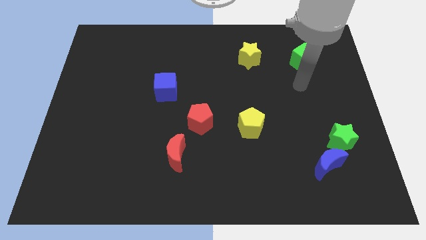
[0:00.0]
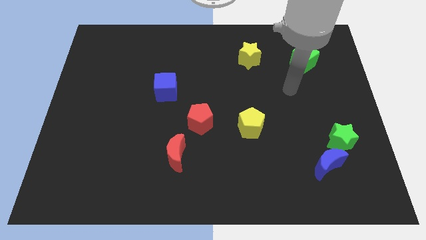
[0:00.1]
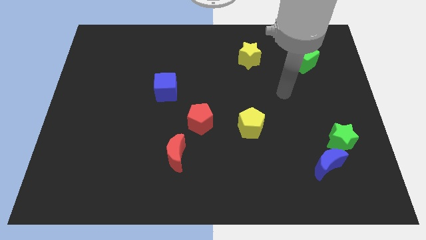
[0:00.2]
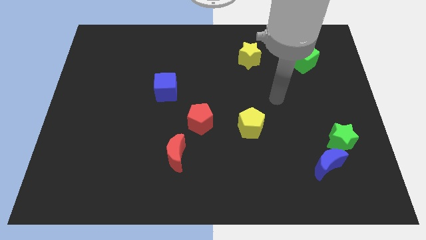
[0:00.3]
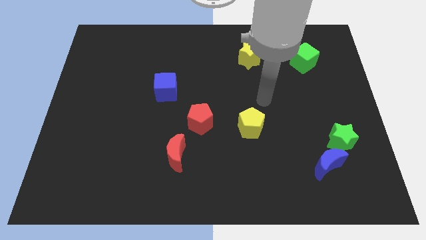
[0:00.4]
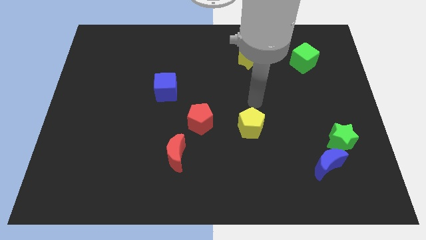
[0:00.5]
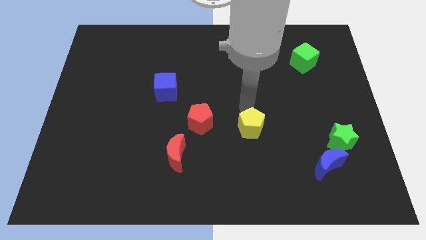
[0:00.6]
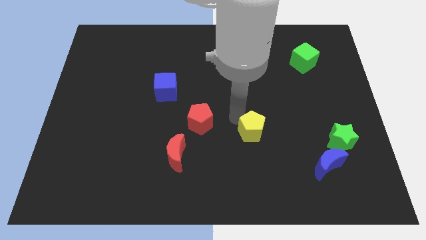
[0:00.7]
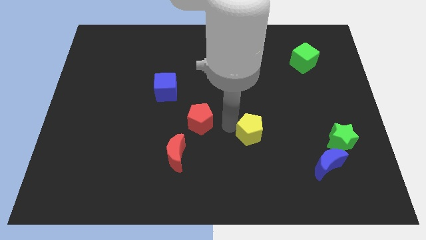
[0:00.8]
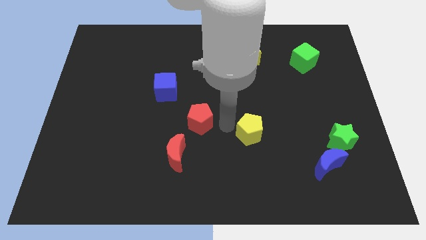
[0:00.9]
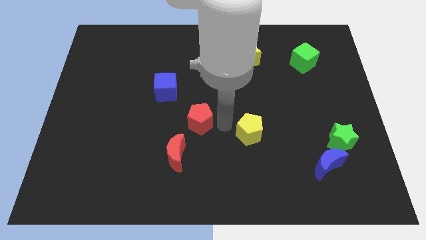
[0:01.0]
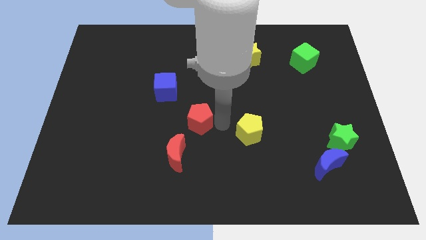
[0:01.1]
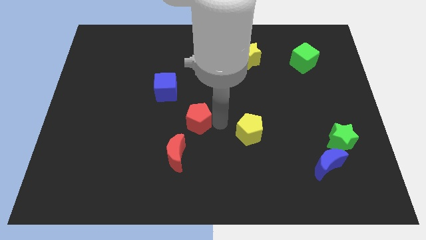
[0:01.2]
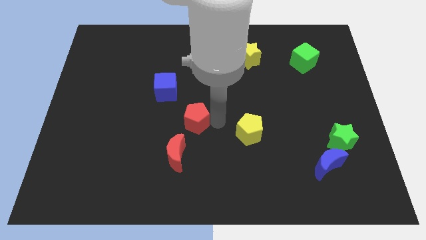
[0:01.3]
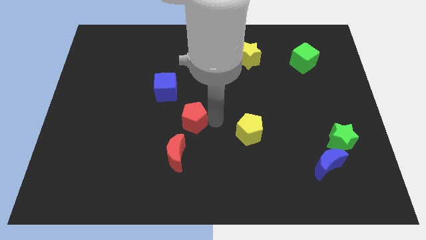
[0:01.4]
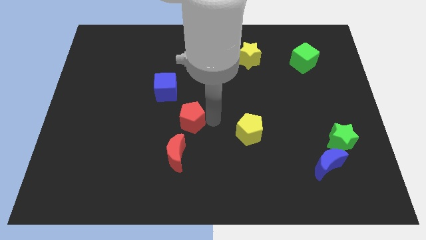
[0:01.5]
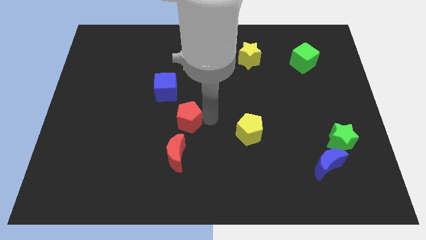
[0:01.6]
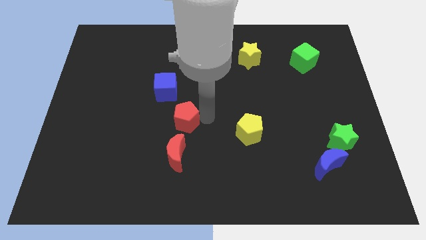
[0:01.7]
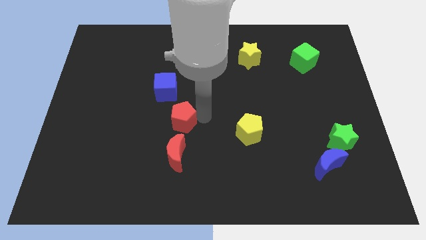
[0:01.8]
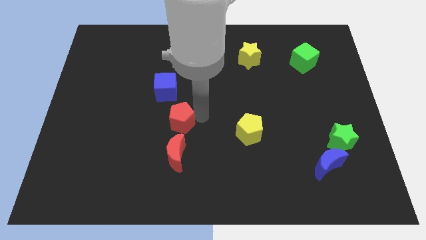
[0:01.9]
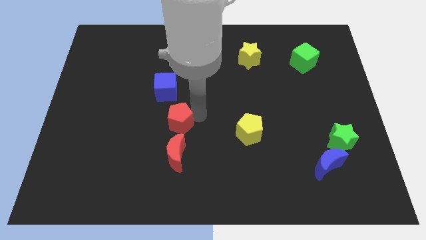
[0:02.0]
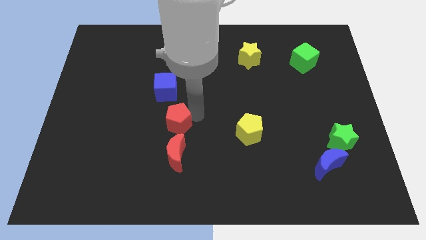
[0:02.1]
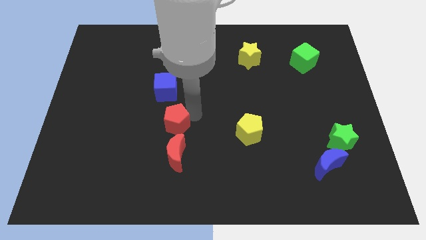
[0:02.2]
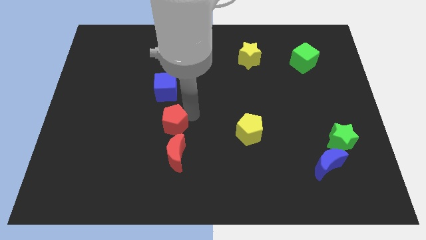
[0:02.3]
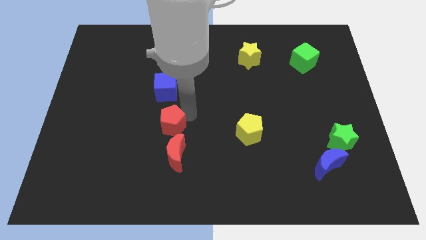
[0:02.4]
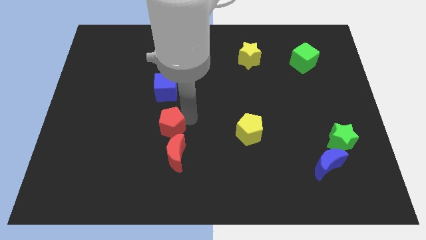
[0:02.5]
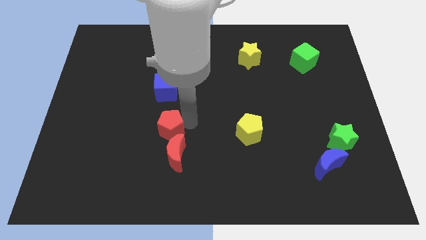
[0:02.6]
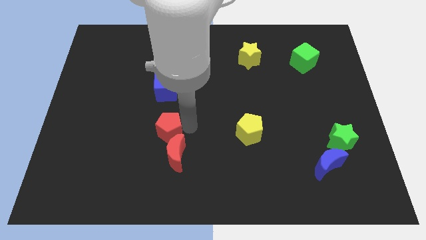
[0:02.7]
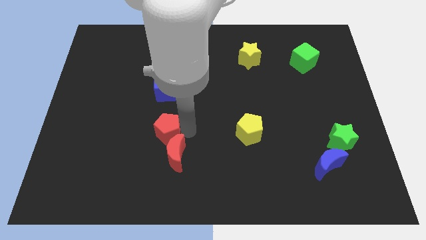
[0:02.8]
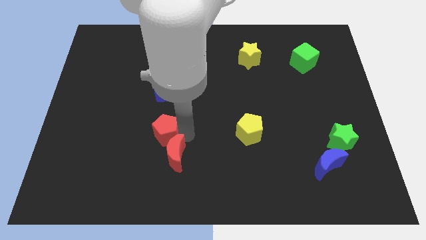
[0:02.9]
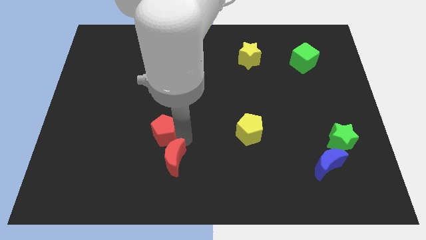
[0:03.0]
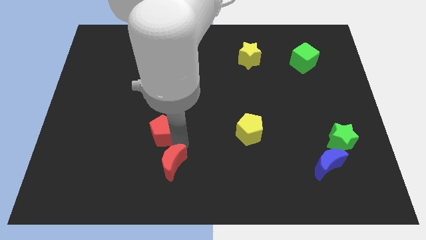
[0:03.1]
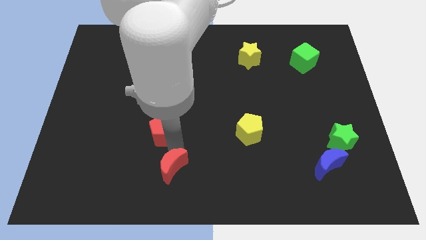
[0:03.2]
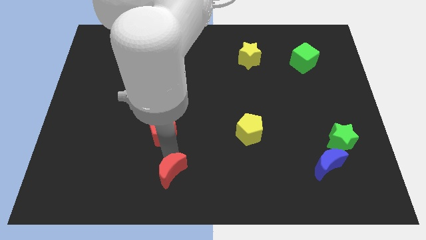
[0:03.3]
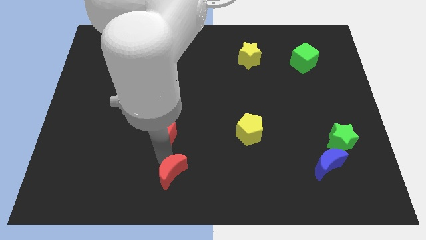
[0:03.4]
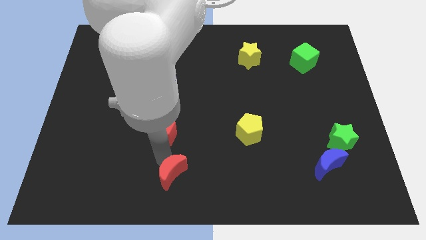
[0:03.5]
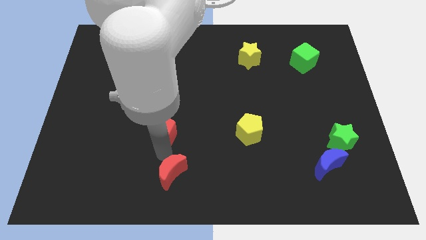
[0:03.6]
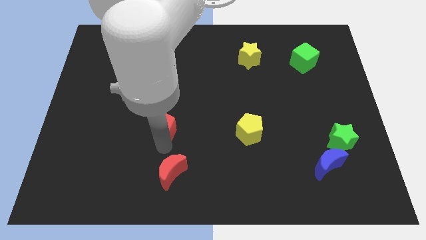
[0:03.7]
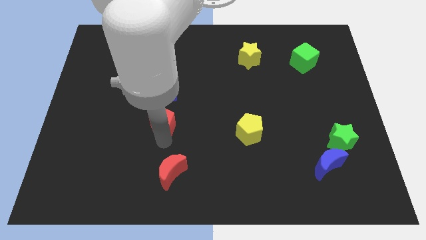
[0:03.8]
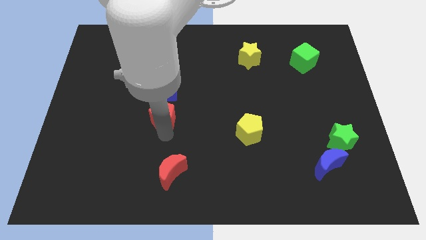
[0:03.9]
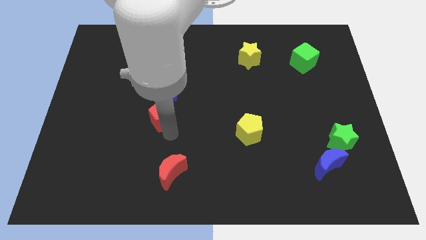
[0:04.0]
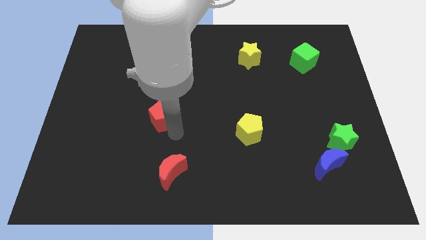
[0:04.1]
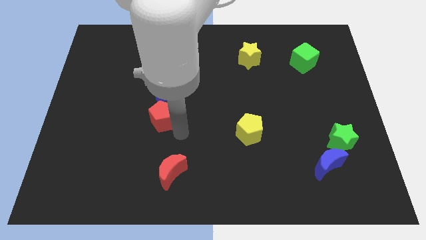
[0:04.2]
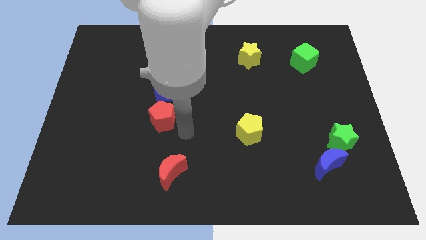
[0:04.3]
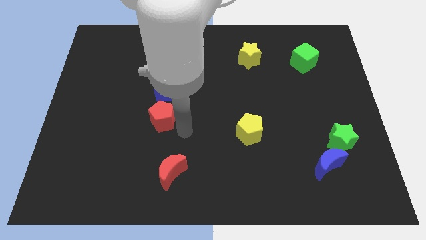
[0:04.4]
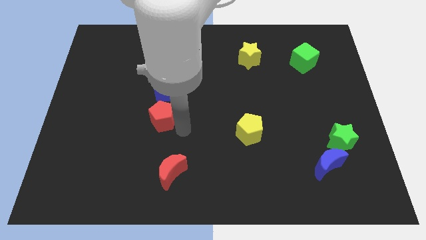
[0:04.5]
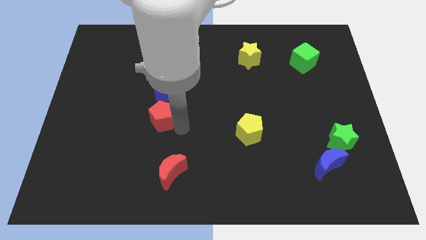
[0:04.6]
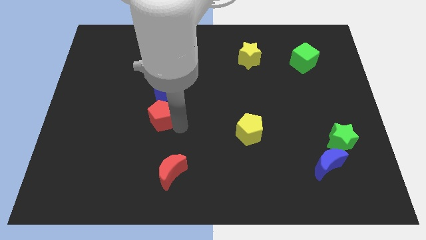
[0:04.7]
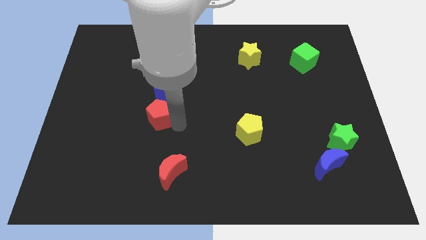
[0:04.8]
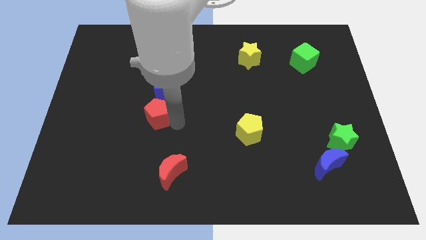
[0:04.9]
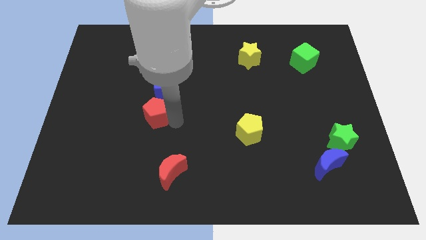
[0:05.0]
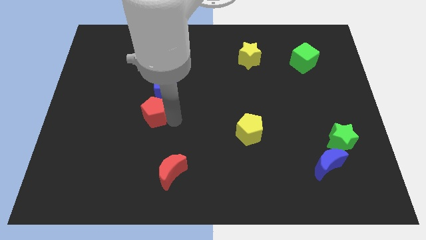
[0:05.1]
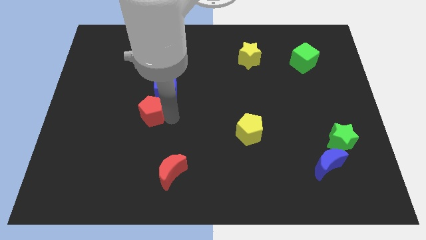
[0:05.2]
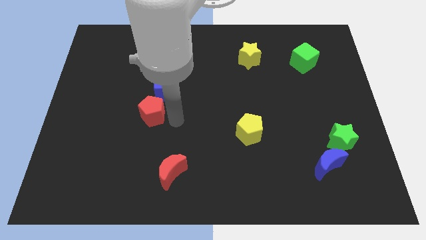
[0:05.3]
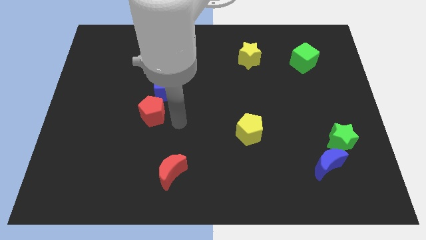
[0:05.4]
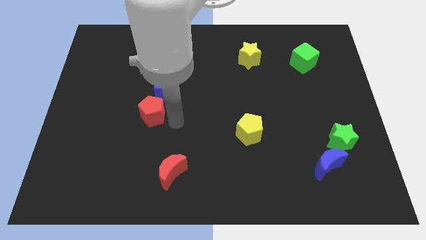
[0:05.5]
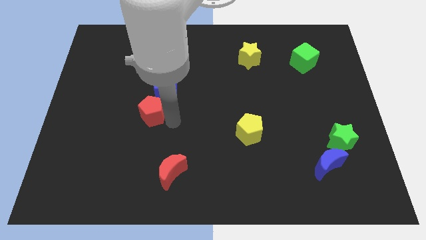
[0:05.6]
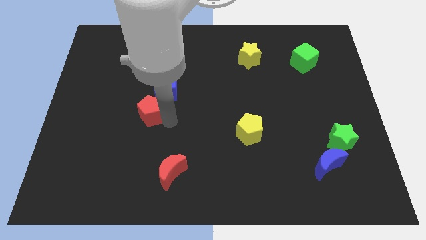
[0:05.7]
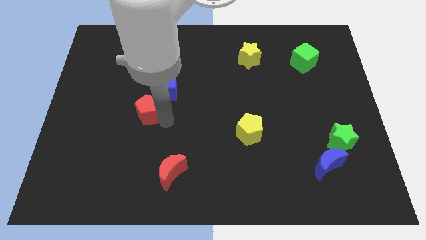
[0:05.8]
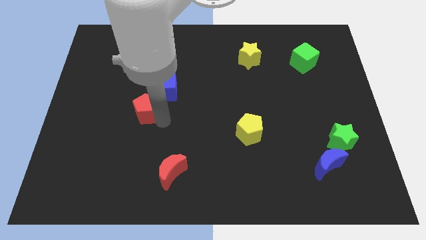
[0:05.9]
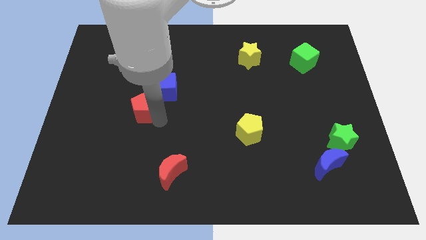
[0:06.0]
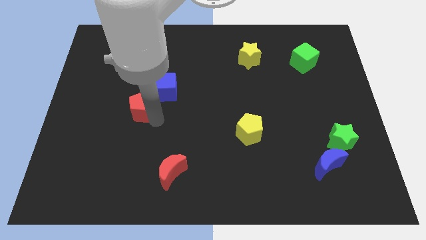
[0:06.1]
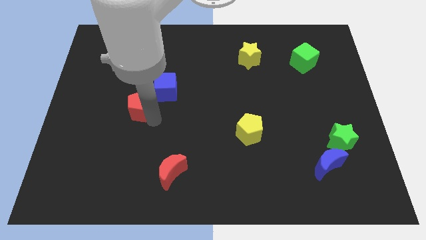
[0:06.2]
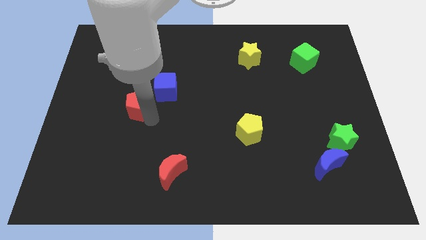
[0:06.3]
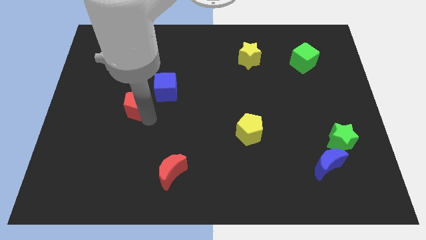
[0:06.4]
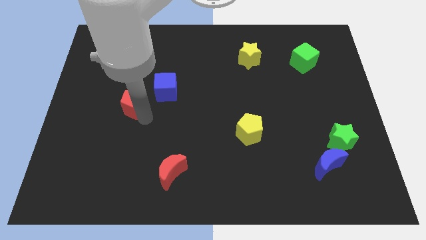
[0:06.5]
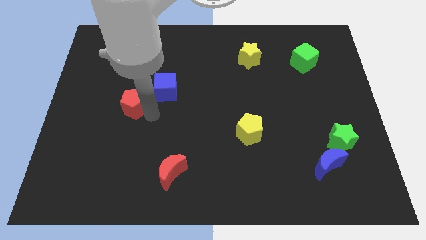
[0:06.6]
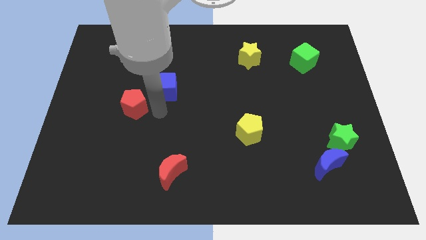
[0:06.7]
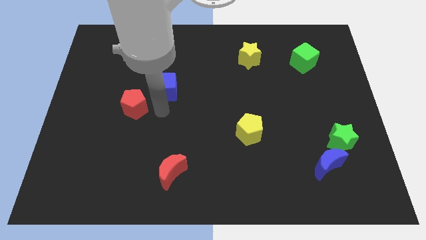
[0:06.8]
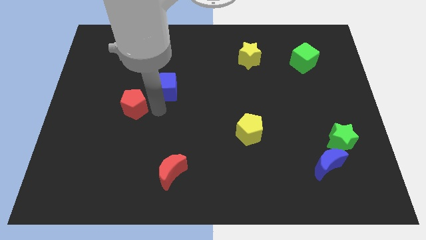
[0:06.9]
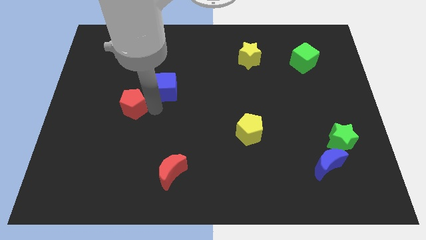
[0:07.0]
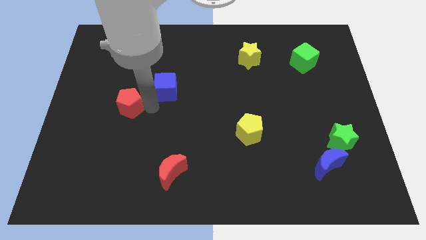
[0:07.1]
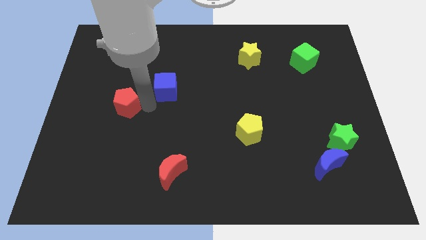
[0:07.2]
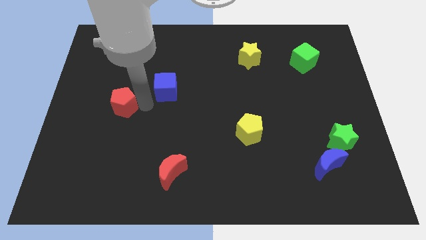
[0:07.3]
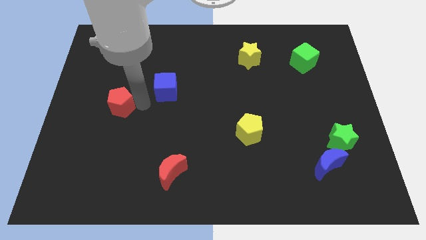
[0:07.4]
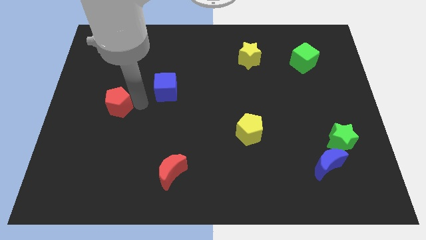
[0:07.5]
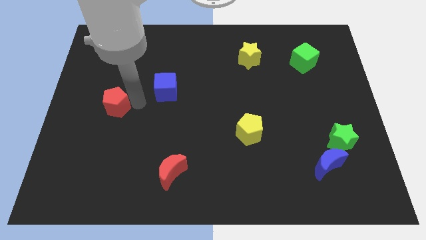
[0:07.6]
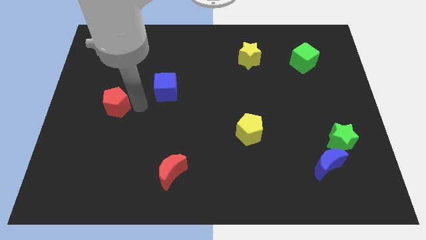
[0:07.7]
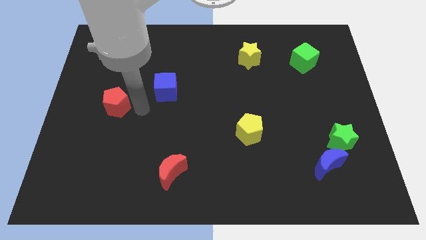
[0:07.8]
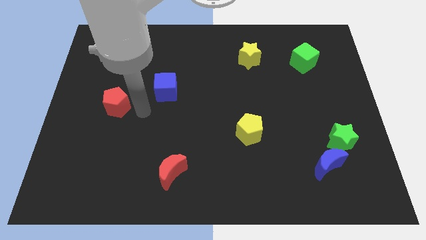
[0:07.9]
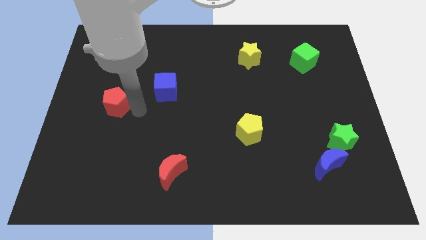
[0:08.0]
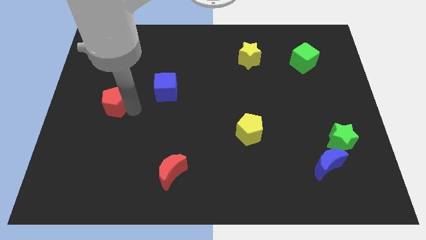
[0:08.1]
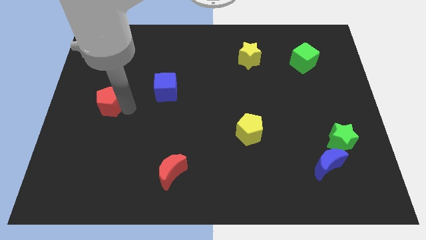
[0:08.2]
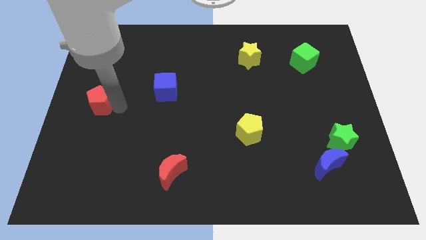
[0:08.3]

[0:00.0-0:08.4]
push the red pentagon to the center left
